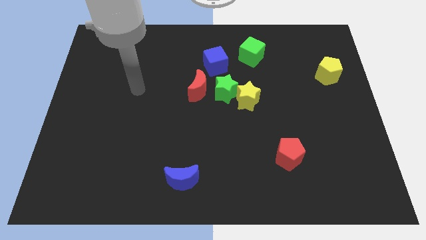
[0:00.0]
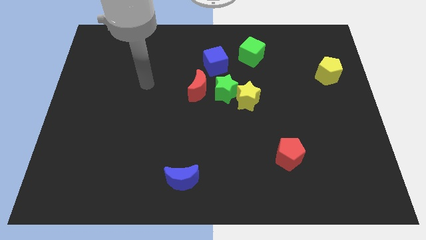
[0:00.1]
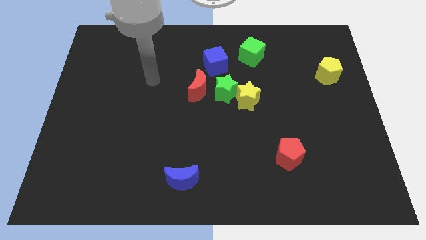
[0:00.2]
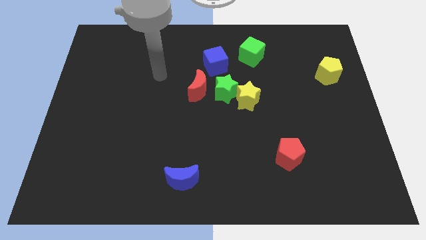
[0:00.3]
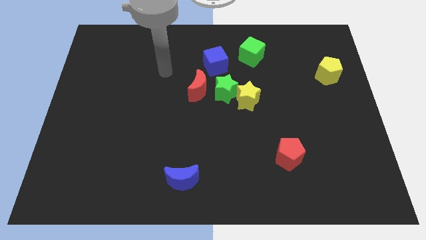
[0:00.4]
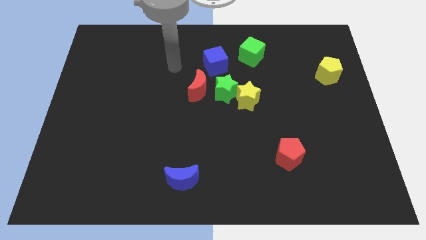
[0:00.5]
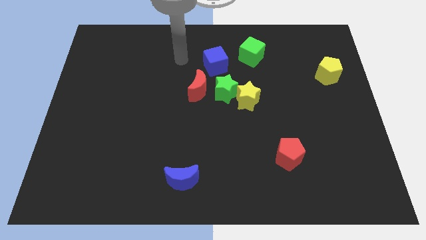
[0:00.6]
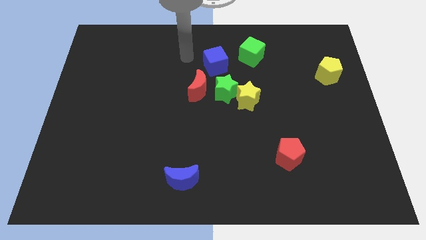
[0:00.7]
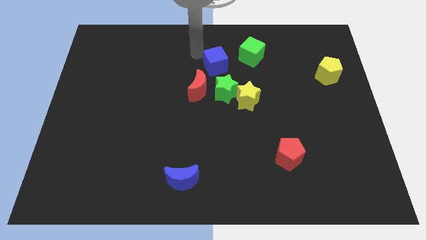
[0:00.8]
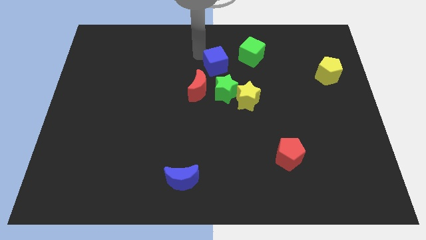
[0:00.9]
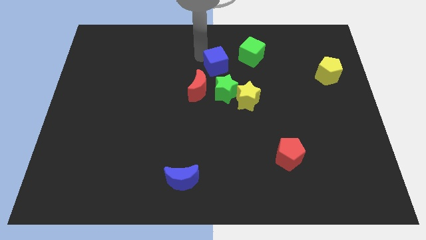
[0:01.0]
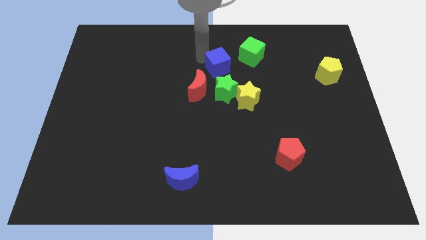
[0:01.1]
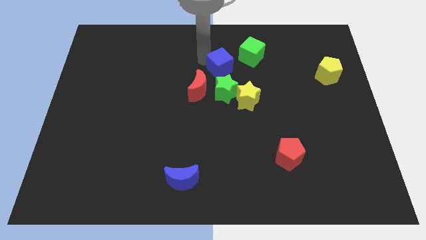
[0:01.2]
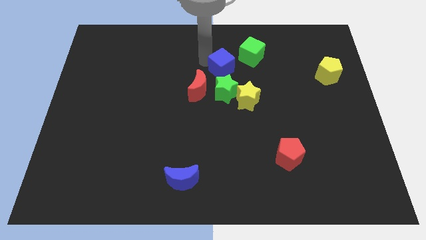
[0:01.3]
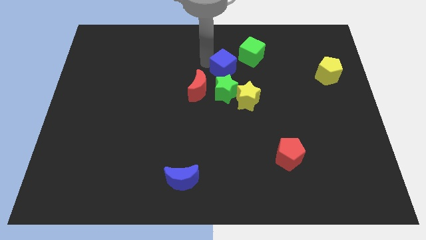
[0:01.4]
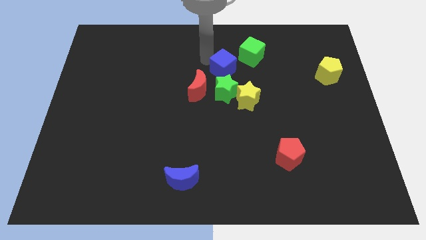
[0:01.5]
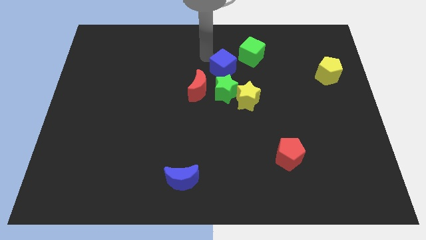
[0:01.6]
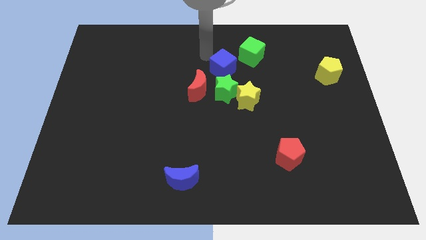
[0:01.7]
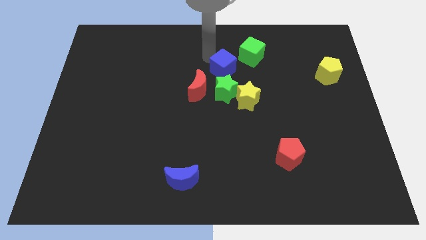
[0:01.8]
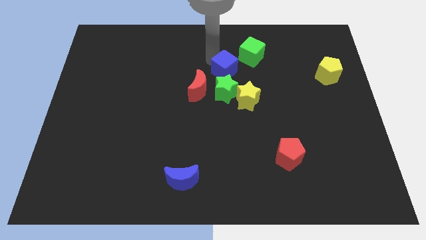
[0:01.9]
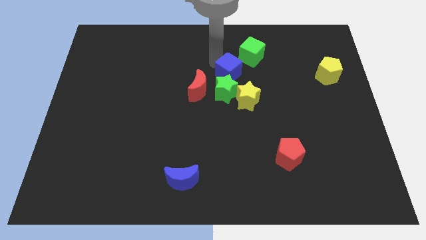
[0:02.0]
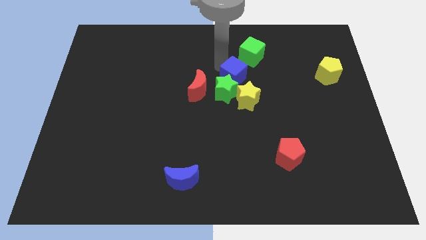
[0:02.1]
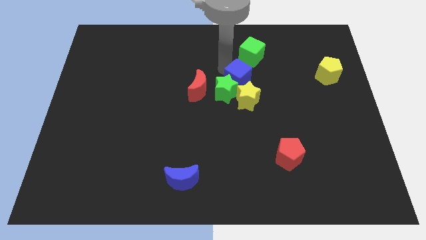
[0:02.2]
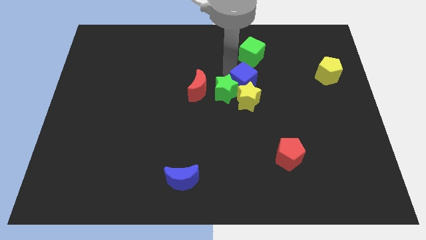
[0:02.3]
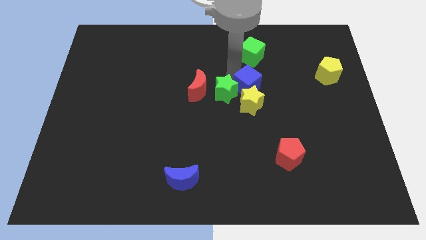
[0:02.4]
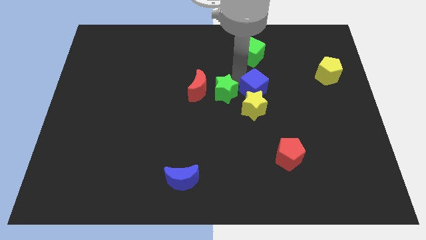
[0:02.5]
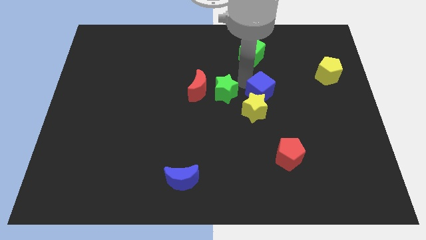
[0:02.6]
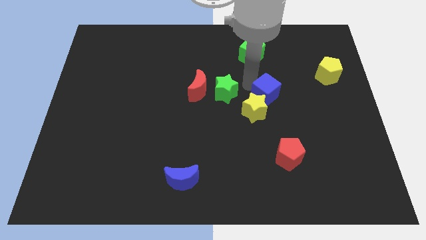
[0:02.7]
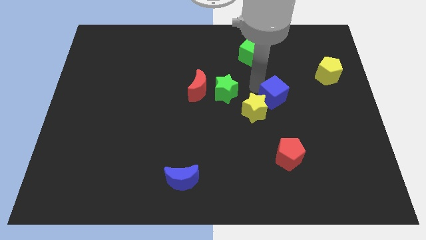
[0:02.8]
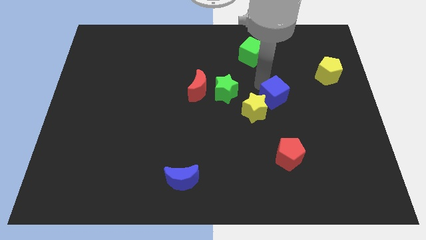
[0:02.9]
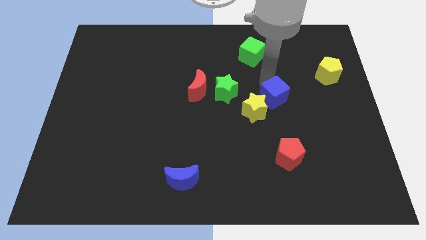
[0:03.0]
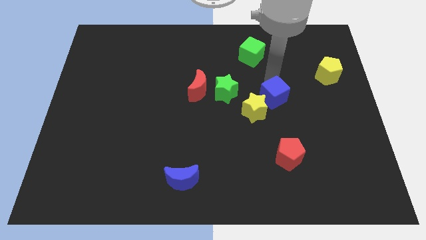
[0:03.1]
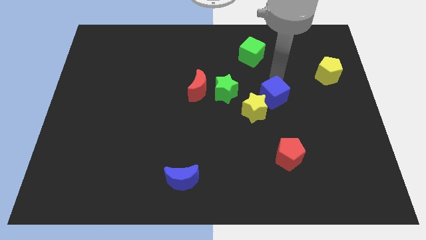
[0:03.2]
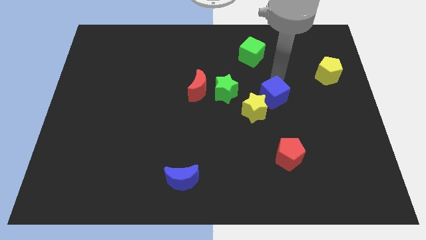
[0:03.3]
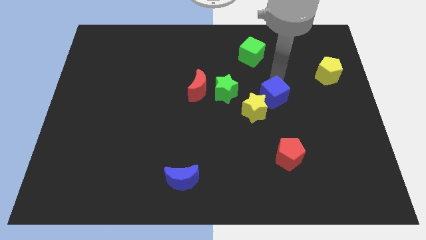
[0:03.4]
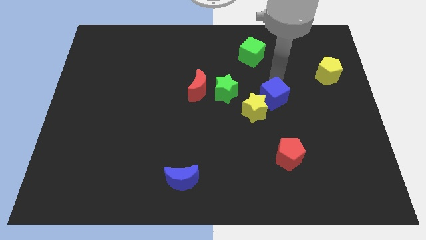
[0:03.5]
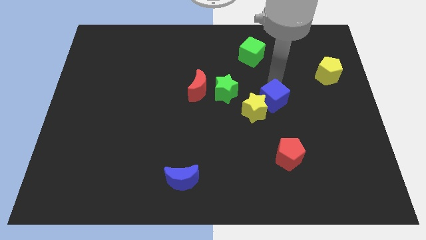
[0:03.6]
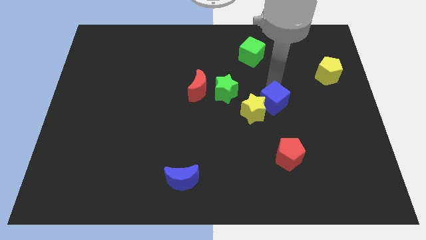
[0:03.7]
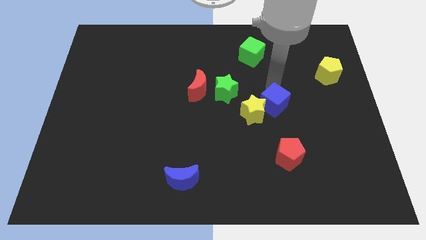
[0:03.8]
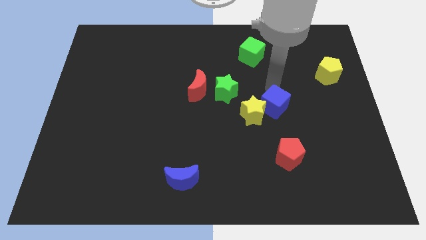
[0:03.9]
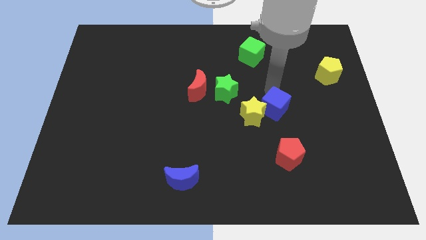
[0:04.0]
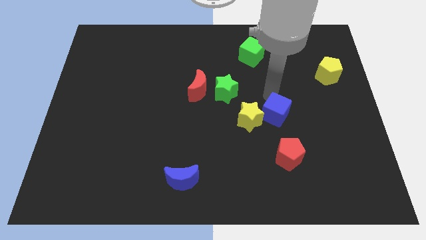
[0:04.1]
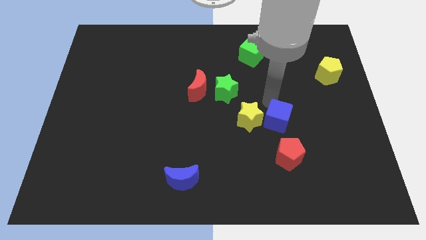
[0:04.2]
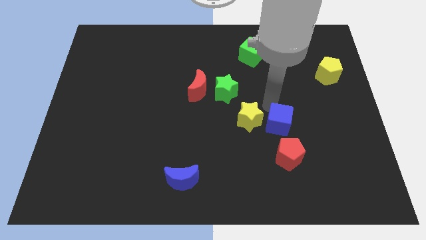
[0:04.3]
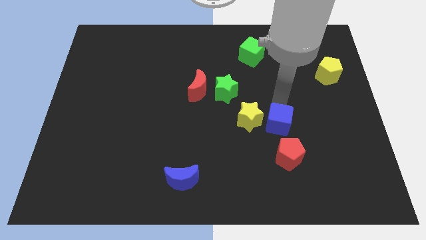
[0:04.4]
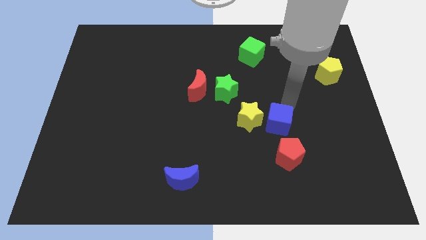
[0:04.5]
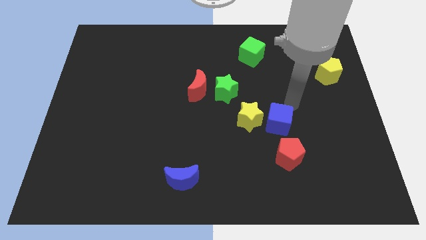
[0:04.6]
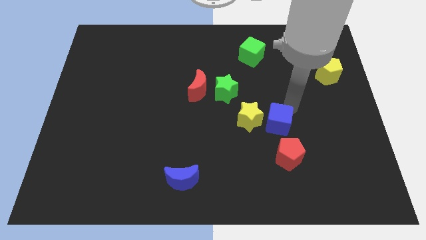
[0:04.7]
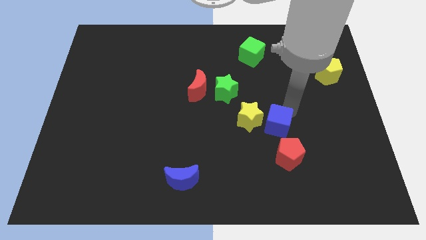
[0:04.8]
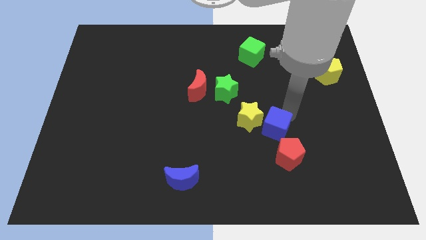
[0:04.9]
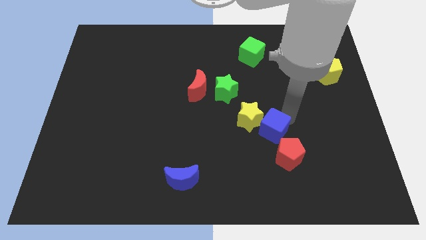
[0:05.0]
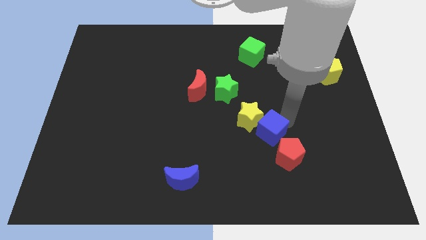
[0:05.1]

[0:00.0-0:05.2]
slide the blue cube below the yellow star

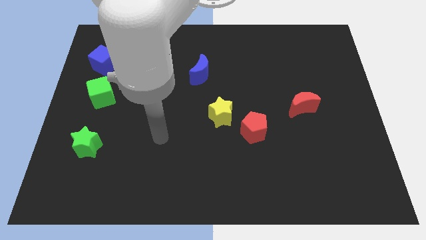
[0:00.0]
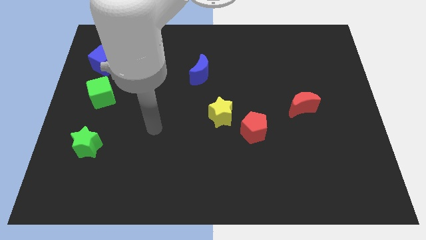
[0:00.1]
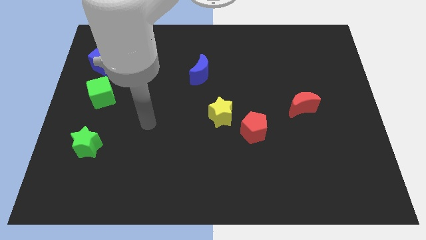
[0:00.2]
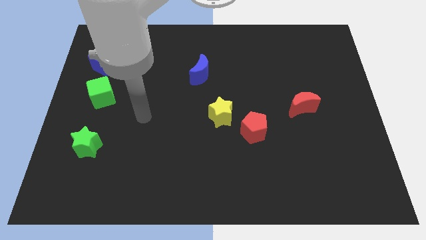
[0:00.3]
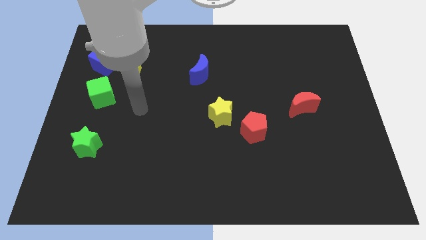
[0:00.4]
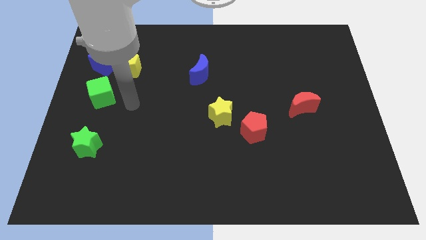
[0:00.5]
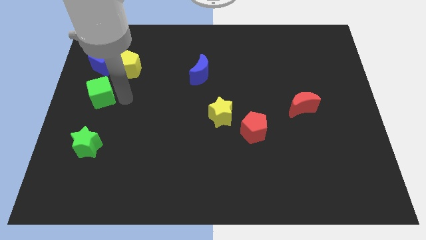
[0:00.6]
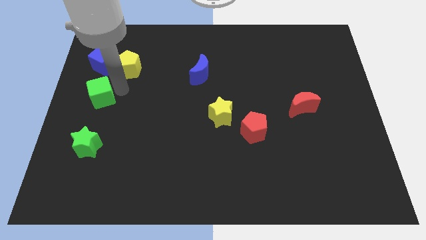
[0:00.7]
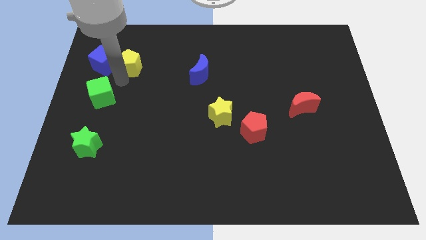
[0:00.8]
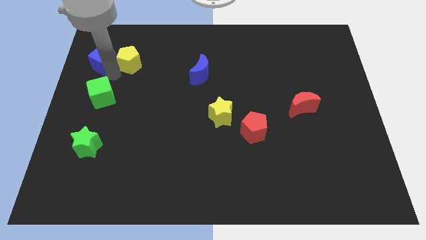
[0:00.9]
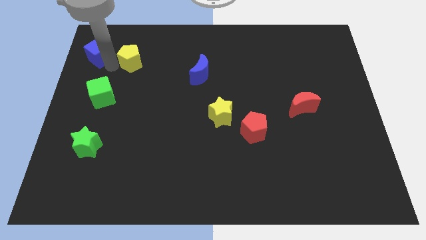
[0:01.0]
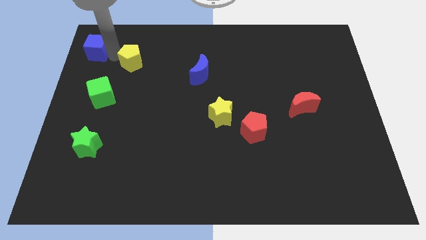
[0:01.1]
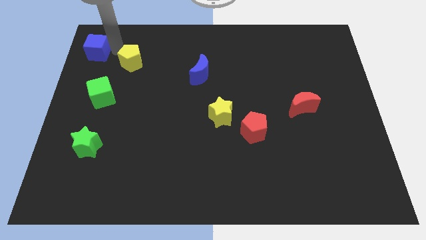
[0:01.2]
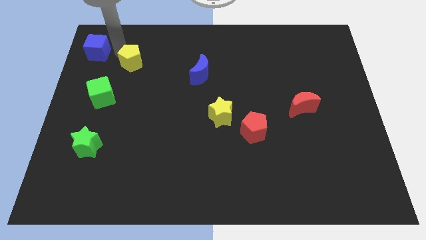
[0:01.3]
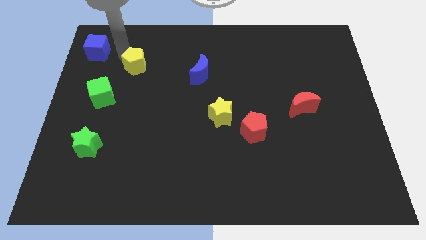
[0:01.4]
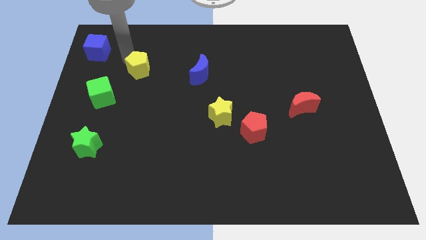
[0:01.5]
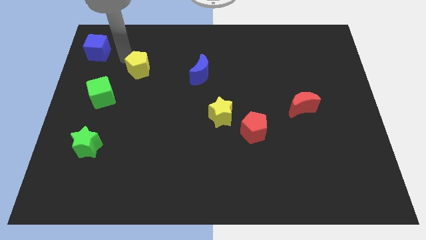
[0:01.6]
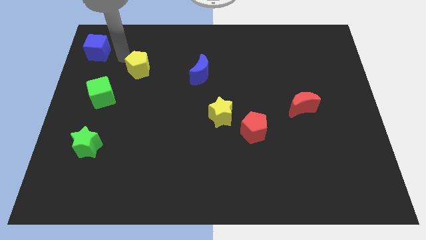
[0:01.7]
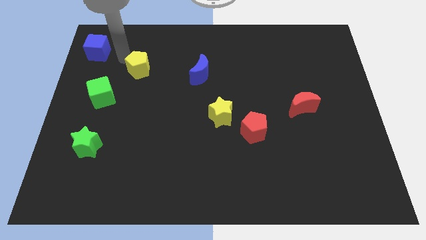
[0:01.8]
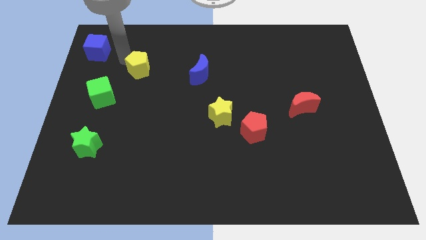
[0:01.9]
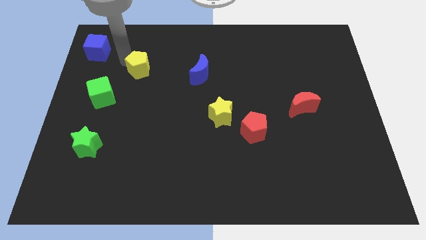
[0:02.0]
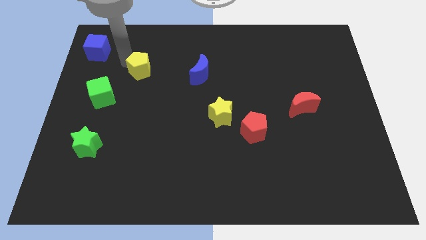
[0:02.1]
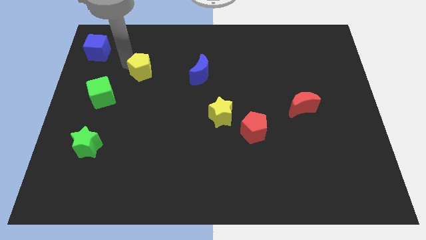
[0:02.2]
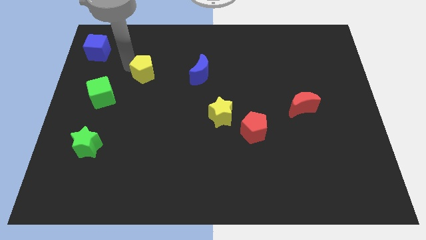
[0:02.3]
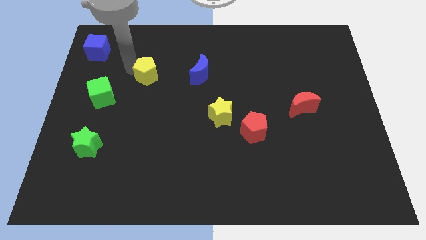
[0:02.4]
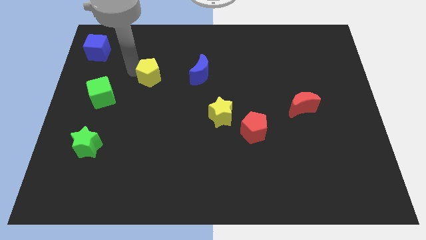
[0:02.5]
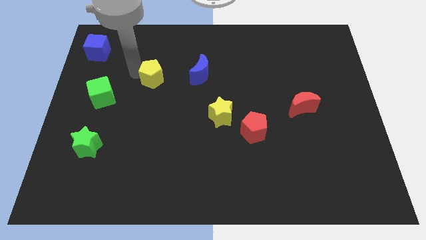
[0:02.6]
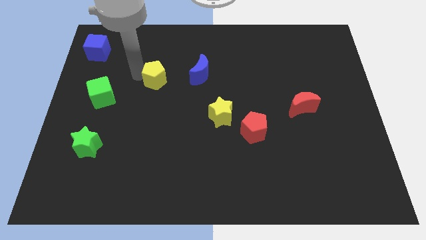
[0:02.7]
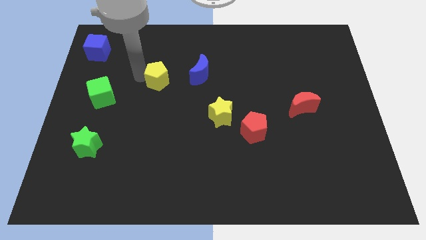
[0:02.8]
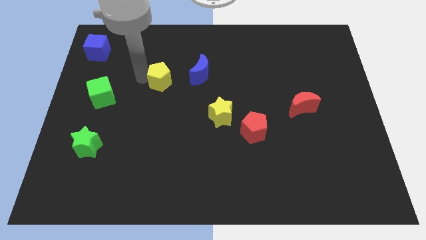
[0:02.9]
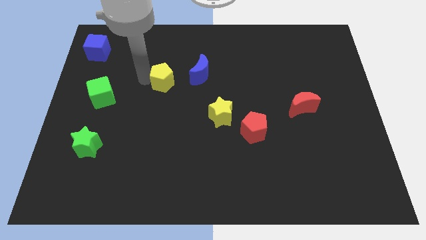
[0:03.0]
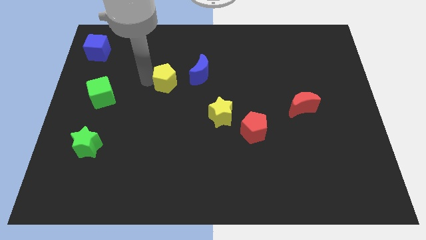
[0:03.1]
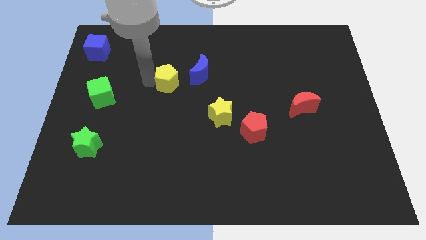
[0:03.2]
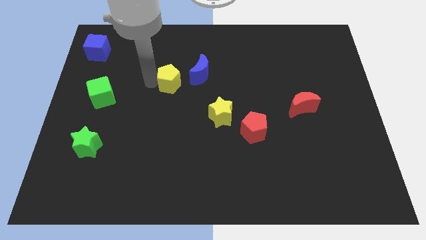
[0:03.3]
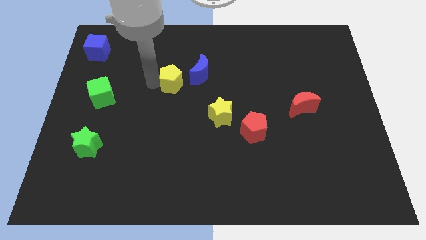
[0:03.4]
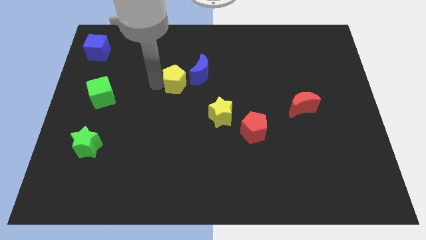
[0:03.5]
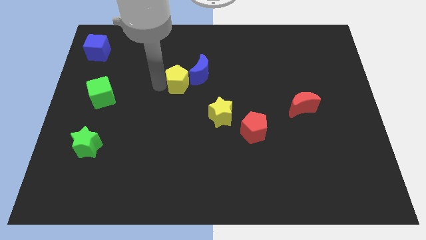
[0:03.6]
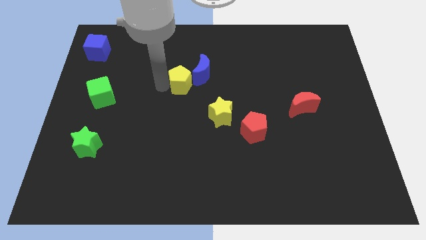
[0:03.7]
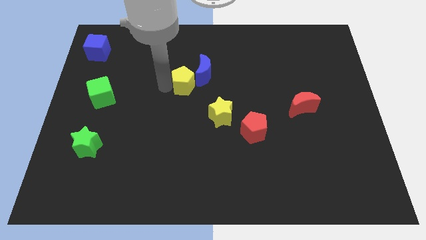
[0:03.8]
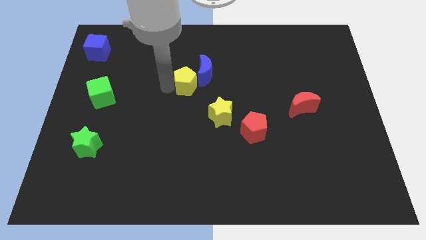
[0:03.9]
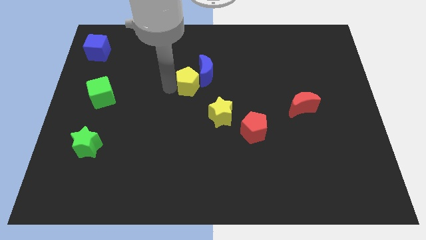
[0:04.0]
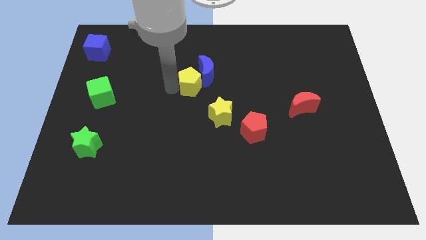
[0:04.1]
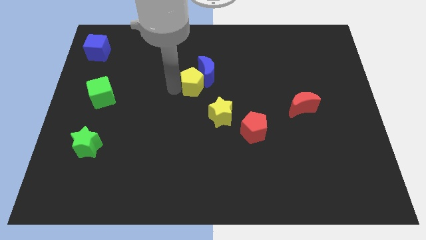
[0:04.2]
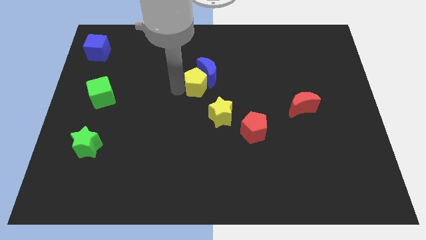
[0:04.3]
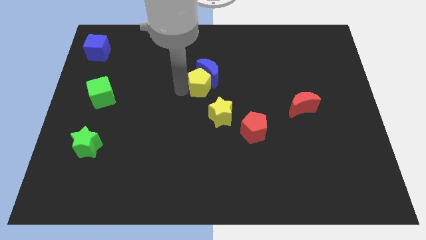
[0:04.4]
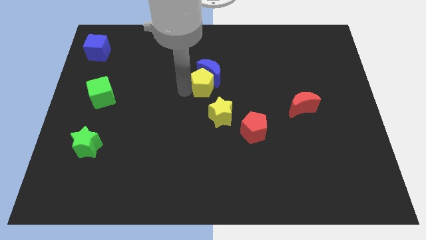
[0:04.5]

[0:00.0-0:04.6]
move the yellow pentagon diagonally down and to the right of the blue moon
